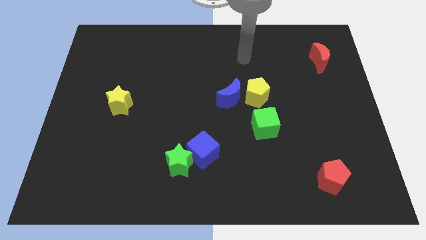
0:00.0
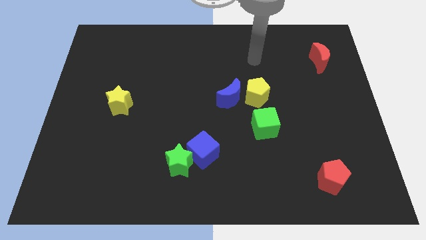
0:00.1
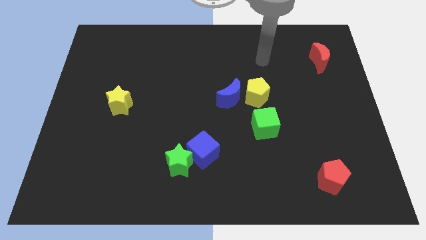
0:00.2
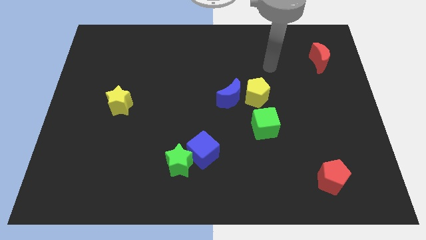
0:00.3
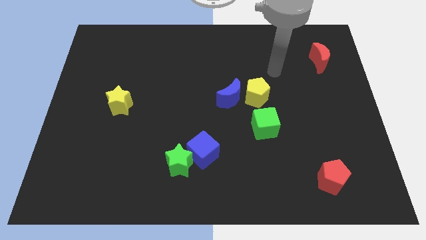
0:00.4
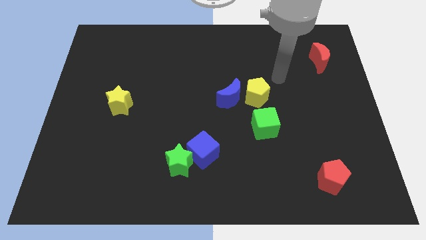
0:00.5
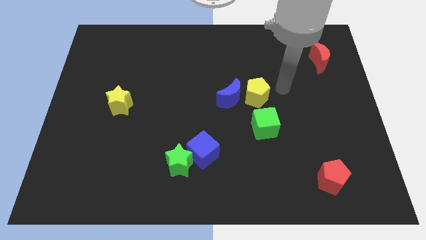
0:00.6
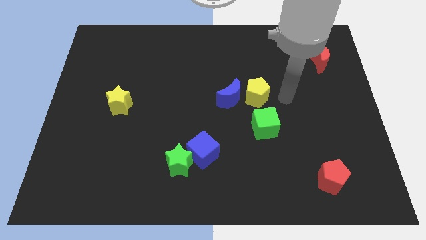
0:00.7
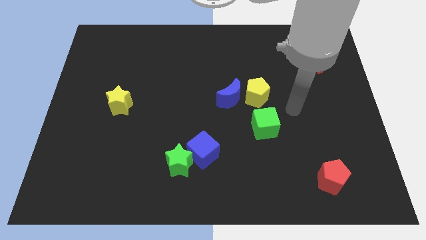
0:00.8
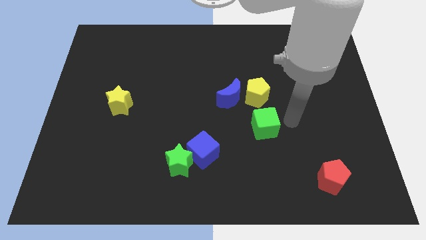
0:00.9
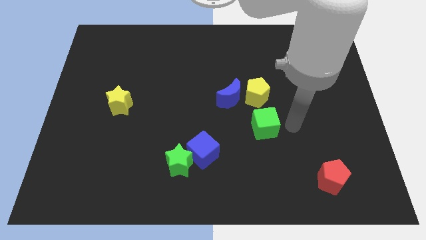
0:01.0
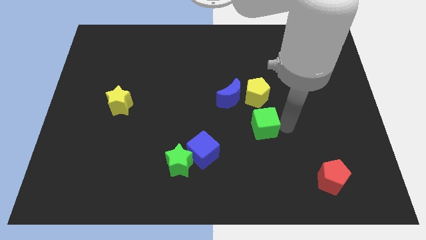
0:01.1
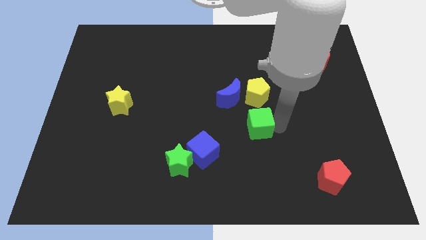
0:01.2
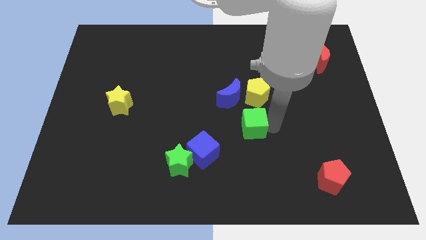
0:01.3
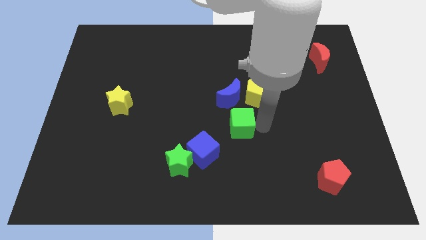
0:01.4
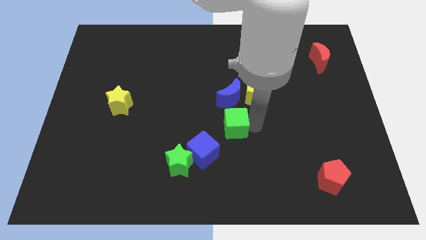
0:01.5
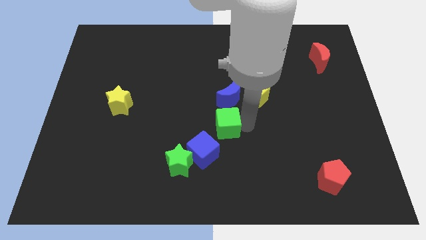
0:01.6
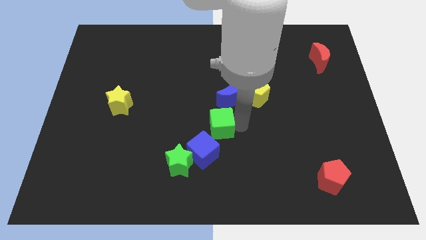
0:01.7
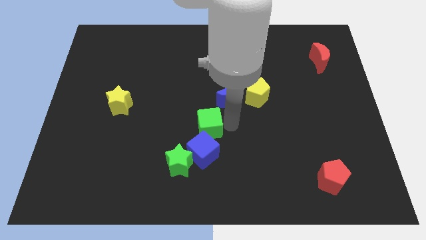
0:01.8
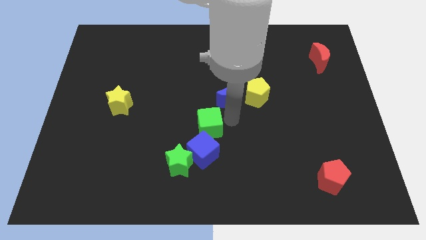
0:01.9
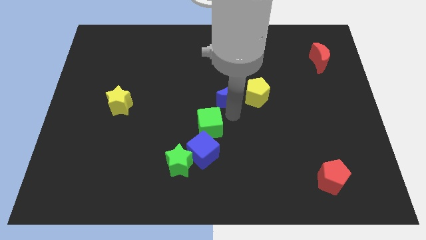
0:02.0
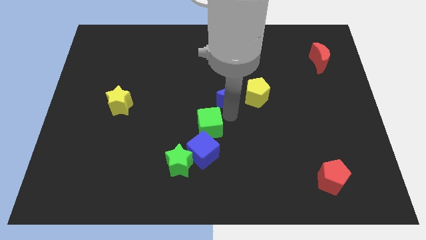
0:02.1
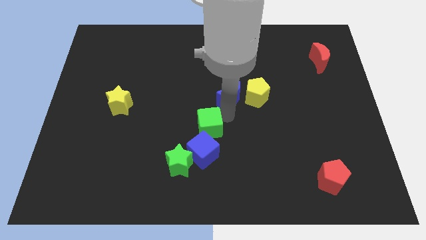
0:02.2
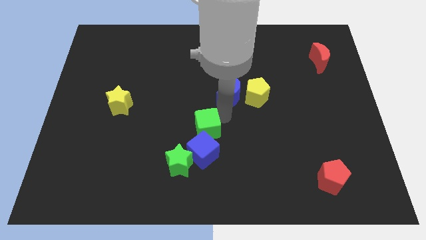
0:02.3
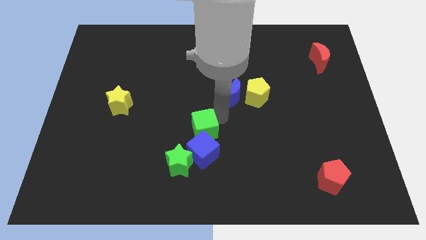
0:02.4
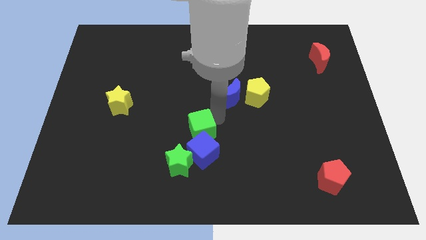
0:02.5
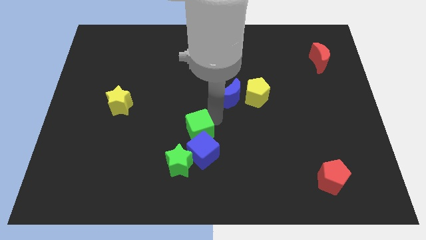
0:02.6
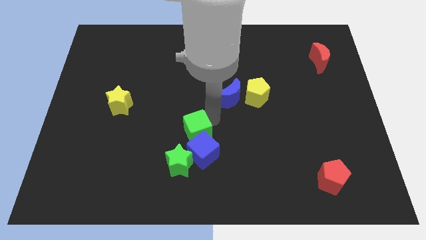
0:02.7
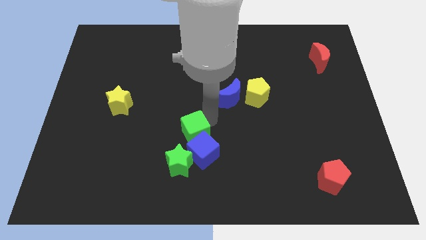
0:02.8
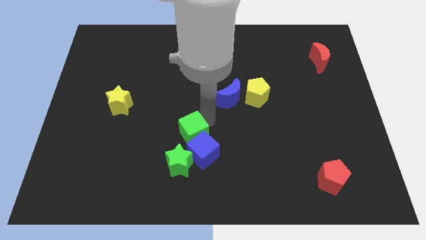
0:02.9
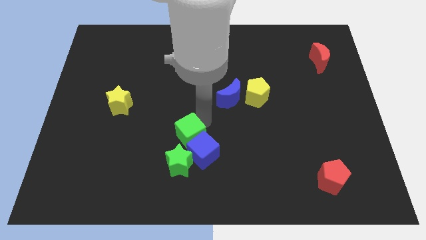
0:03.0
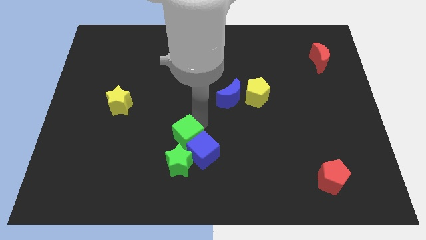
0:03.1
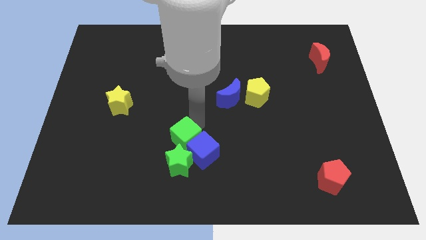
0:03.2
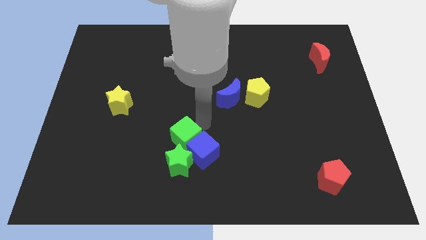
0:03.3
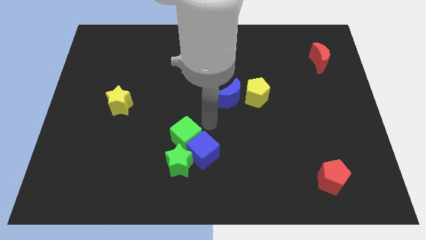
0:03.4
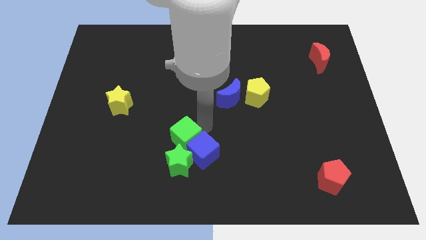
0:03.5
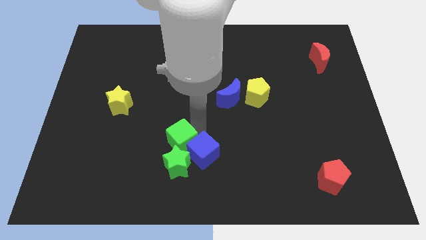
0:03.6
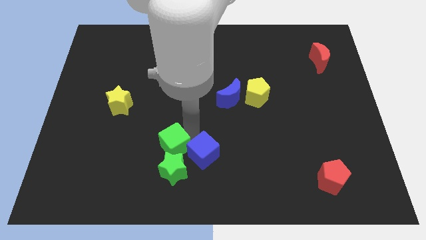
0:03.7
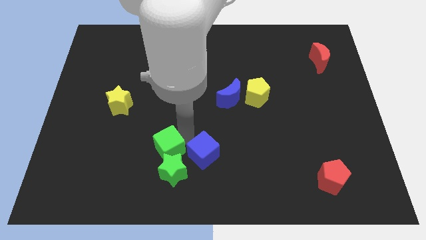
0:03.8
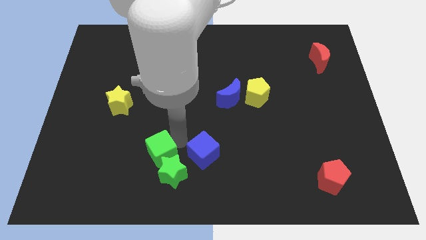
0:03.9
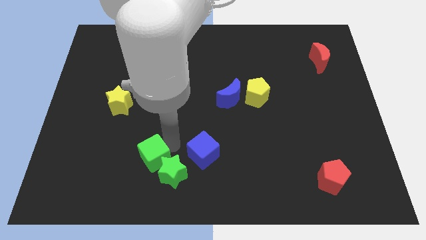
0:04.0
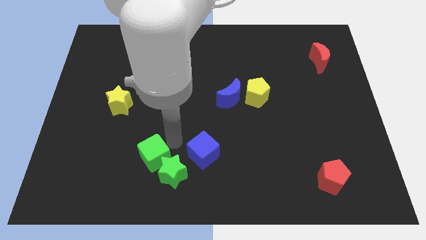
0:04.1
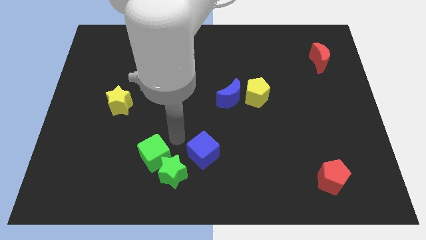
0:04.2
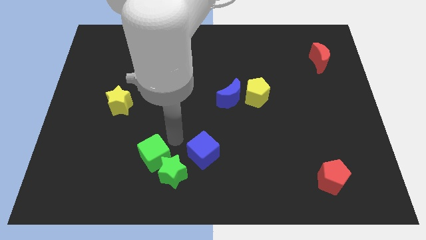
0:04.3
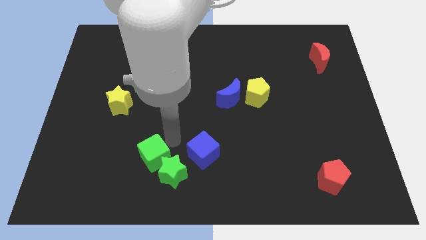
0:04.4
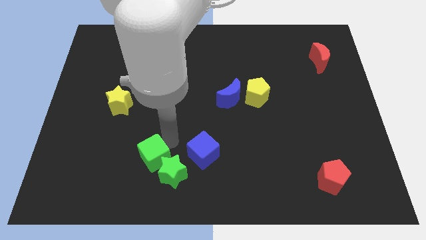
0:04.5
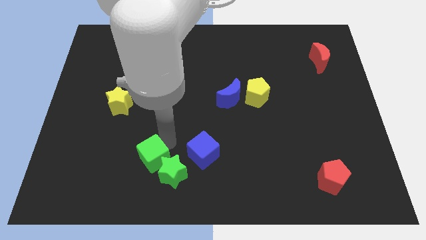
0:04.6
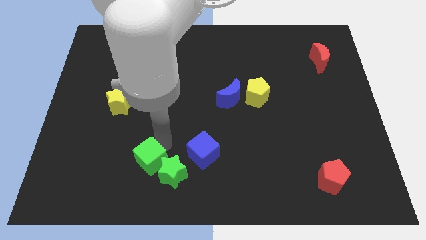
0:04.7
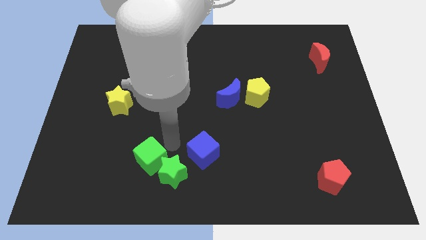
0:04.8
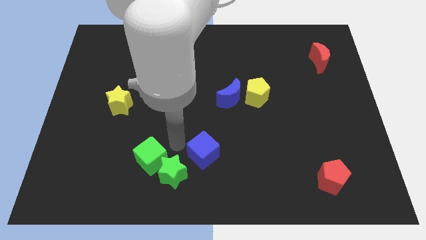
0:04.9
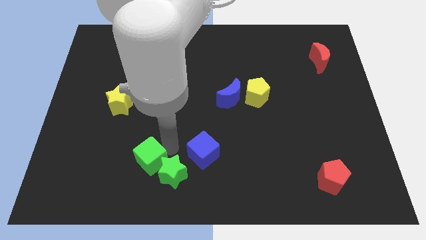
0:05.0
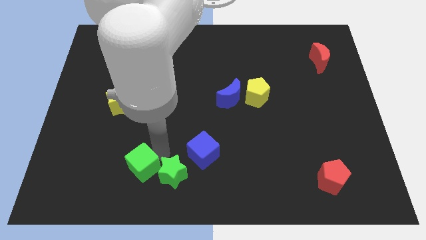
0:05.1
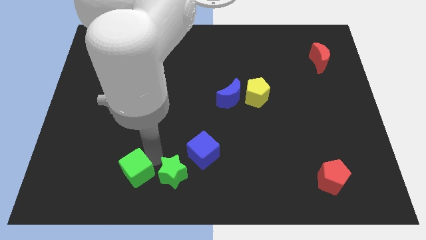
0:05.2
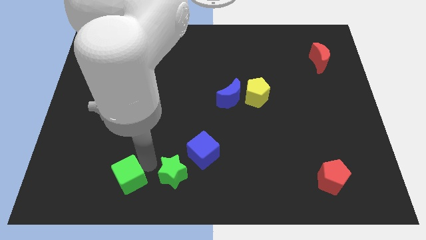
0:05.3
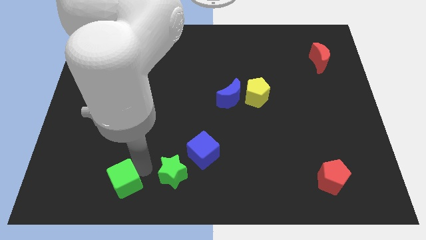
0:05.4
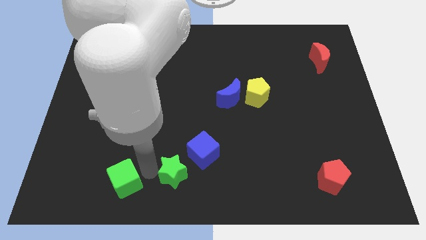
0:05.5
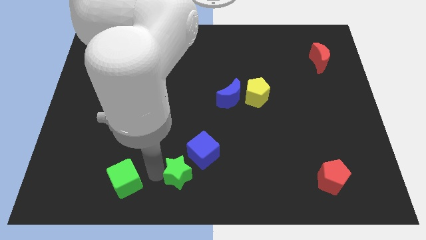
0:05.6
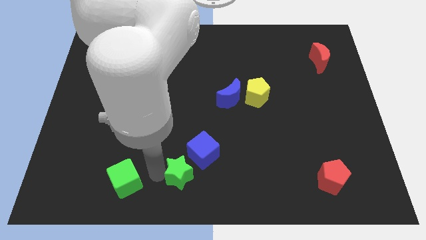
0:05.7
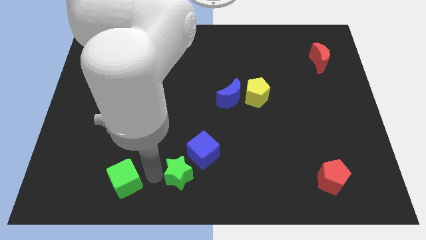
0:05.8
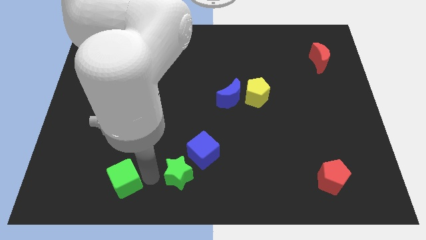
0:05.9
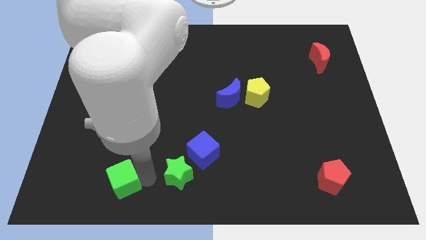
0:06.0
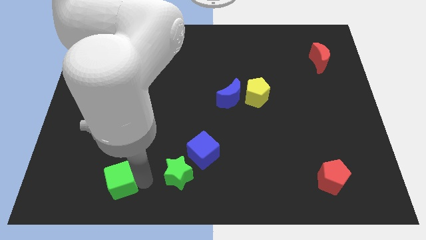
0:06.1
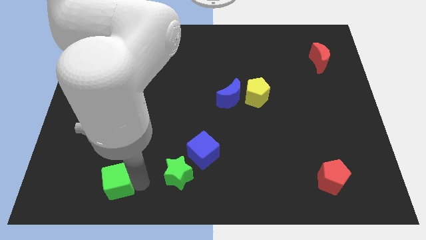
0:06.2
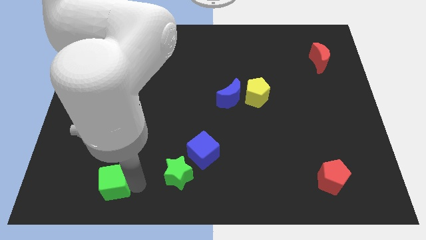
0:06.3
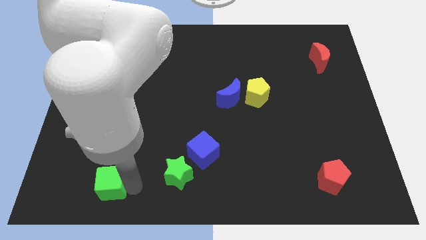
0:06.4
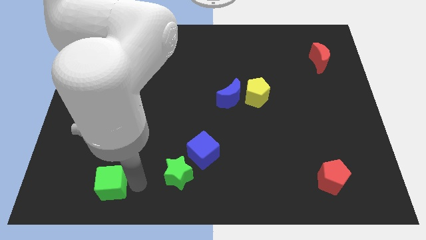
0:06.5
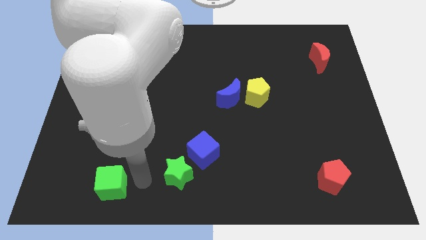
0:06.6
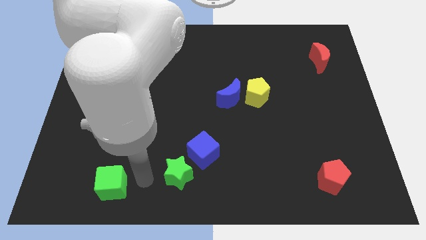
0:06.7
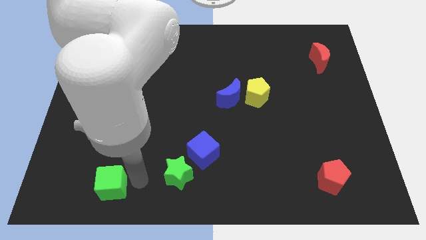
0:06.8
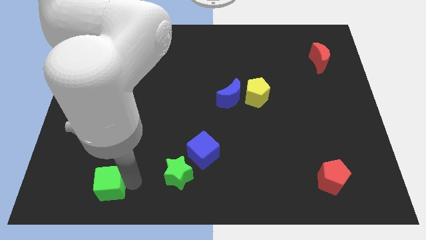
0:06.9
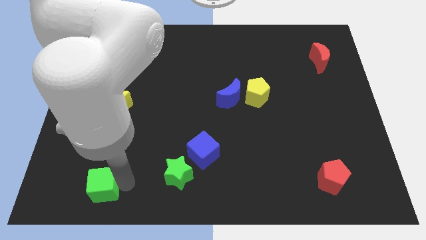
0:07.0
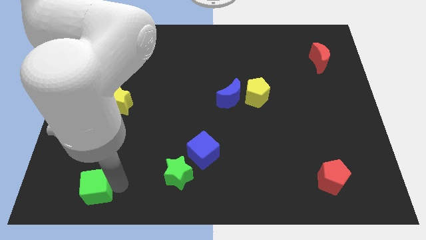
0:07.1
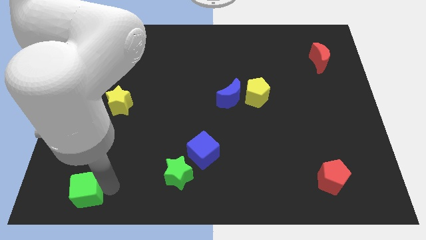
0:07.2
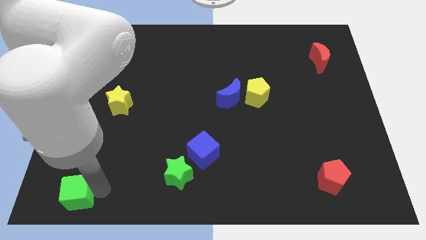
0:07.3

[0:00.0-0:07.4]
push the green cube to the bottom left corner
